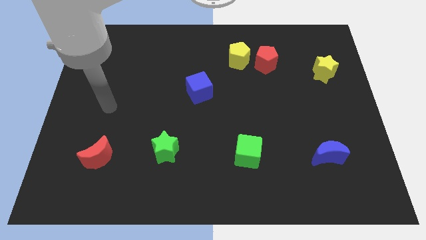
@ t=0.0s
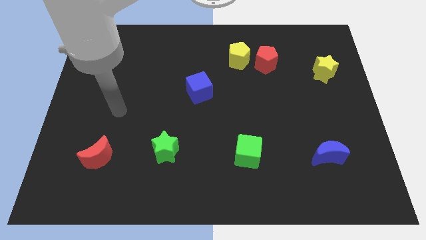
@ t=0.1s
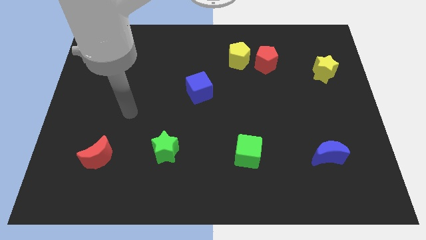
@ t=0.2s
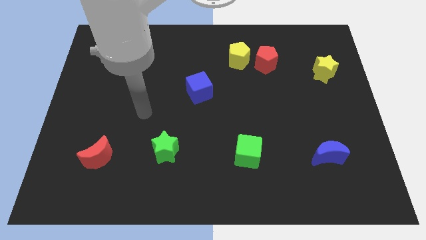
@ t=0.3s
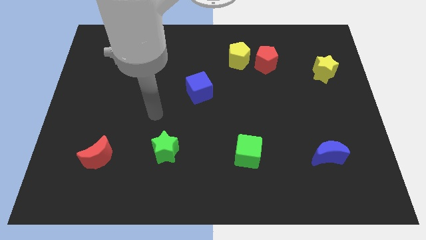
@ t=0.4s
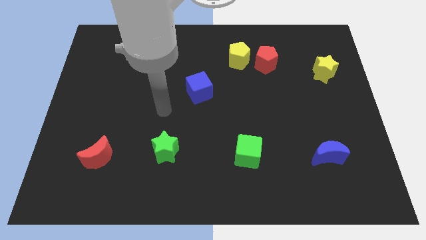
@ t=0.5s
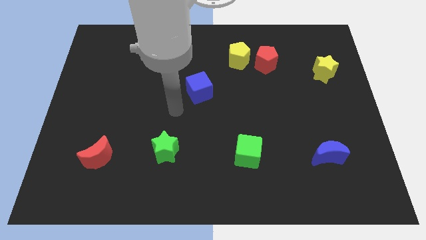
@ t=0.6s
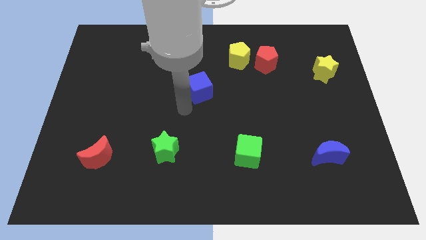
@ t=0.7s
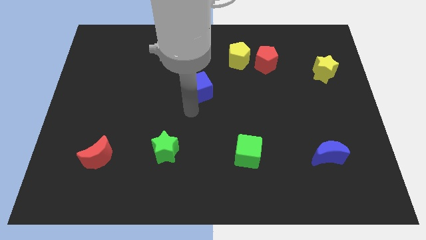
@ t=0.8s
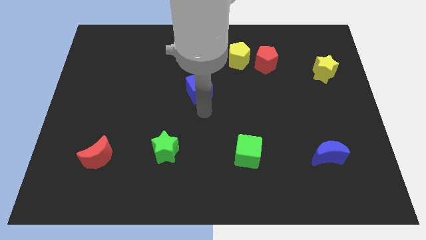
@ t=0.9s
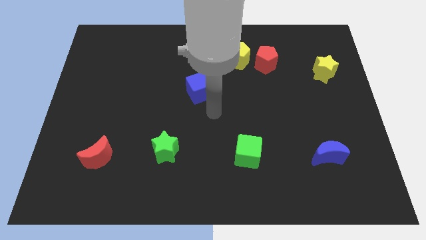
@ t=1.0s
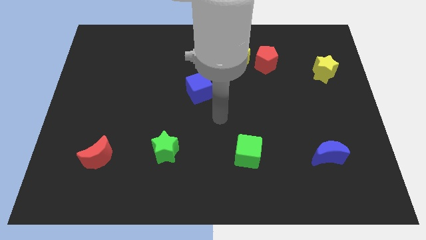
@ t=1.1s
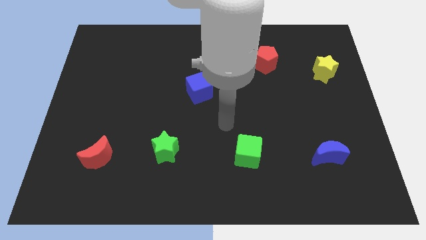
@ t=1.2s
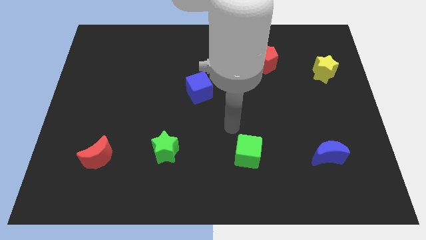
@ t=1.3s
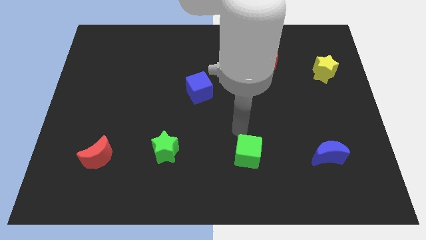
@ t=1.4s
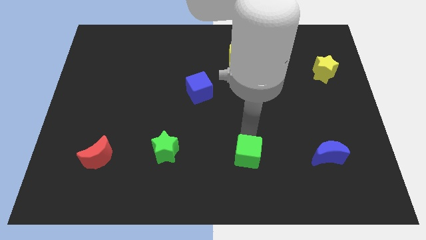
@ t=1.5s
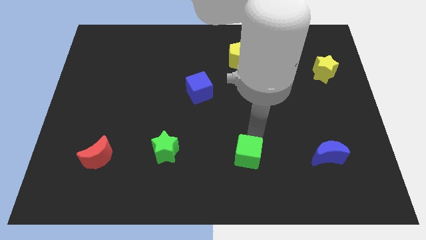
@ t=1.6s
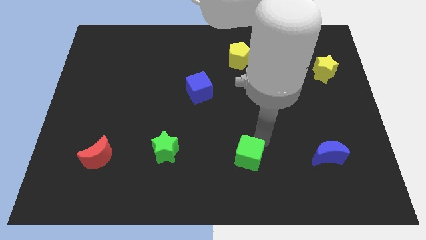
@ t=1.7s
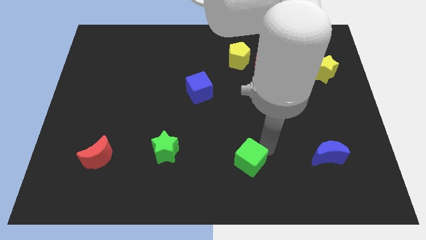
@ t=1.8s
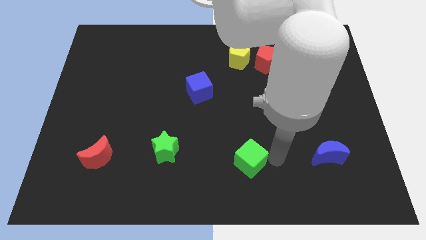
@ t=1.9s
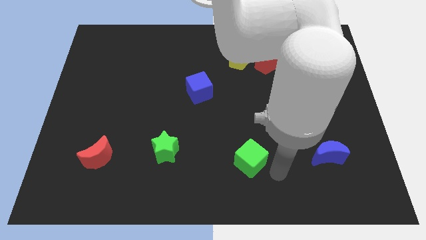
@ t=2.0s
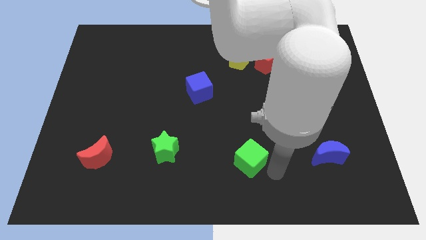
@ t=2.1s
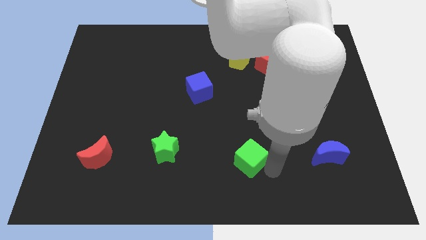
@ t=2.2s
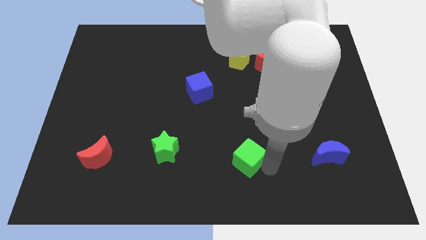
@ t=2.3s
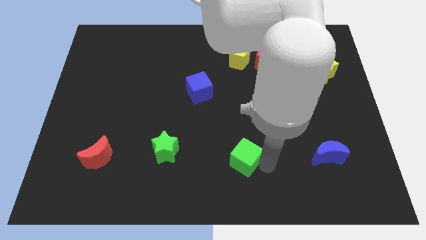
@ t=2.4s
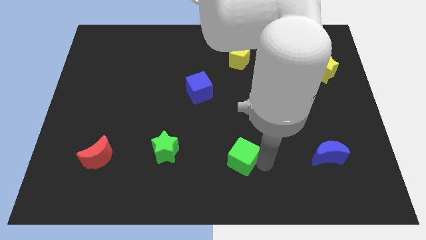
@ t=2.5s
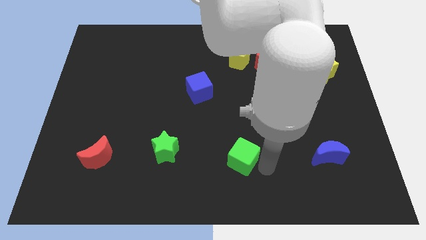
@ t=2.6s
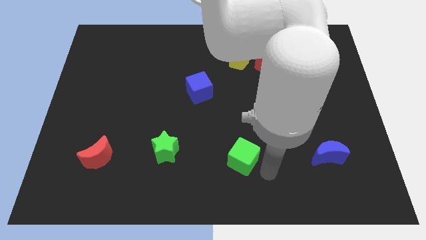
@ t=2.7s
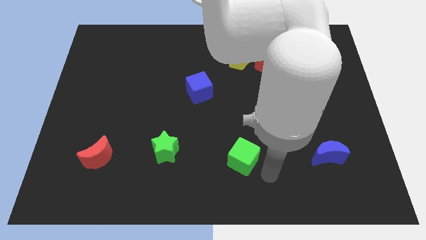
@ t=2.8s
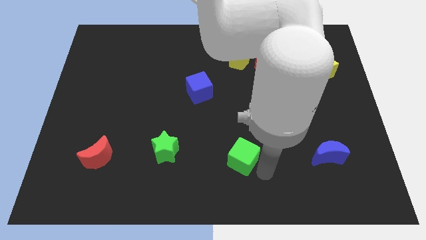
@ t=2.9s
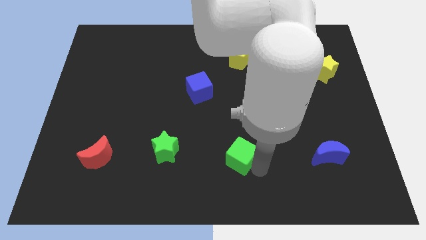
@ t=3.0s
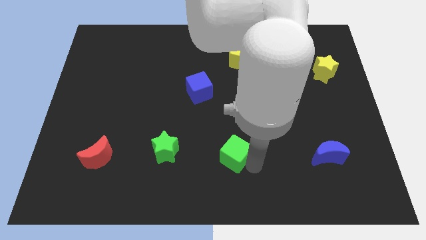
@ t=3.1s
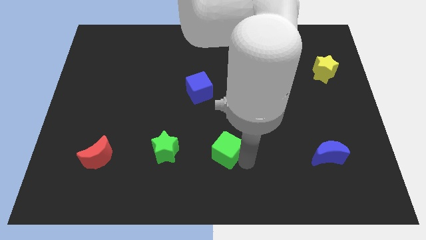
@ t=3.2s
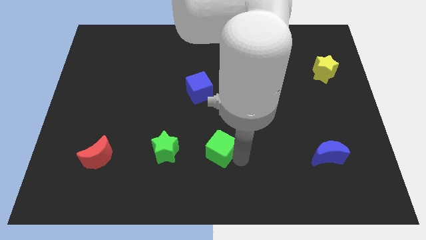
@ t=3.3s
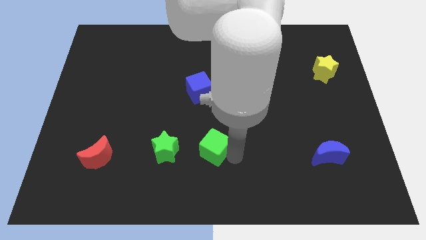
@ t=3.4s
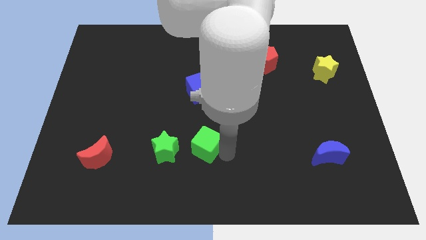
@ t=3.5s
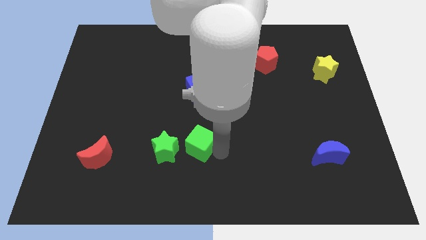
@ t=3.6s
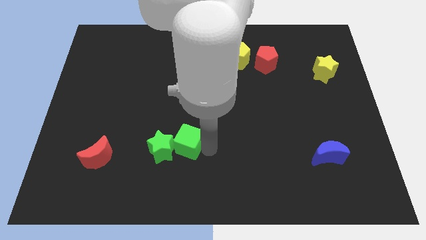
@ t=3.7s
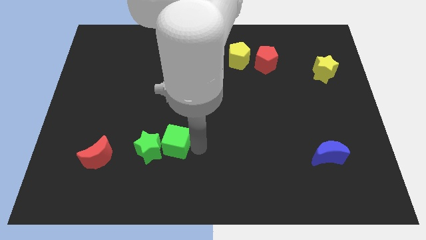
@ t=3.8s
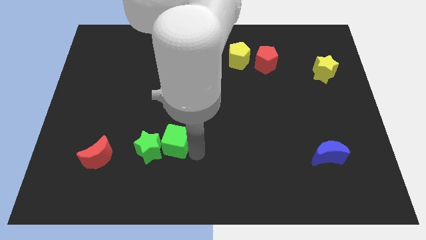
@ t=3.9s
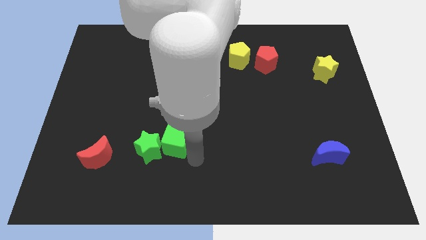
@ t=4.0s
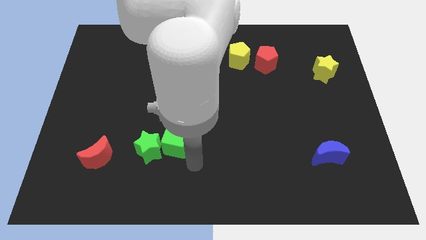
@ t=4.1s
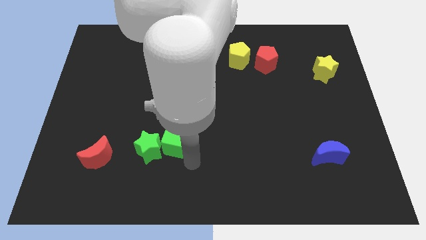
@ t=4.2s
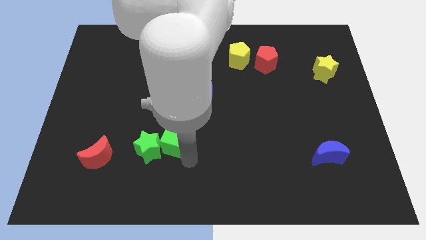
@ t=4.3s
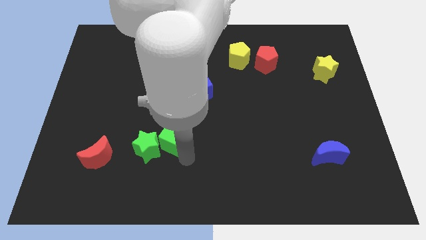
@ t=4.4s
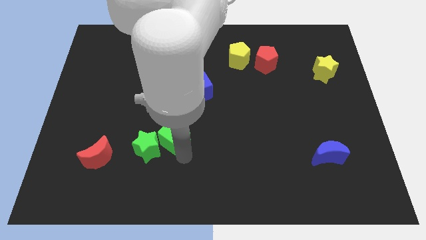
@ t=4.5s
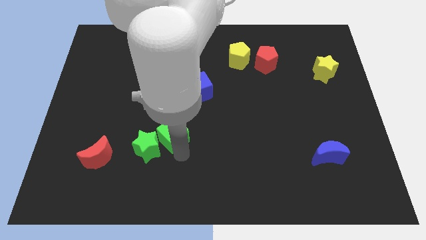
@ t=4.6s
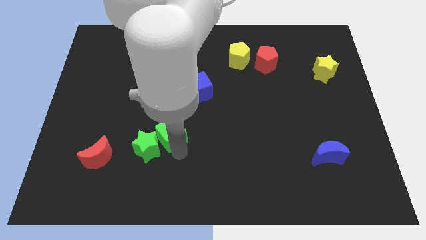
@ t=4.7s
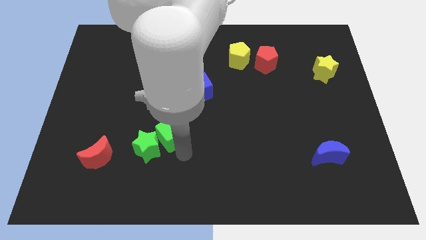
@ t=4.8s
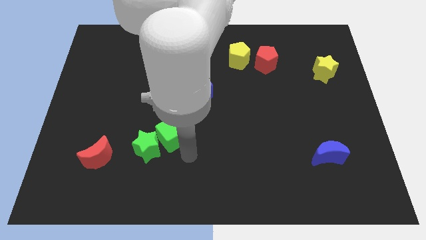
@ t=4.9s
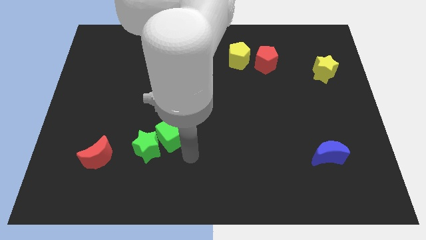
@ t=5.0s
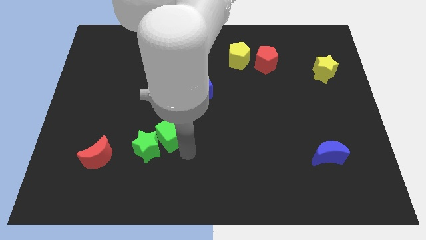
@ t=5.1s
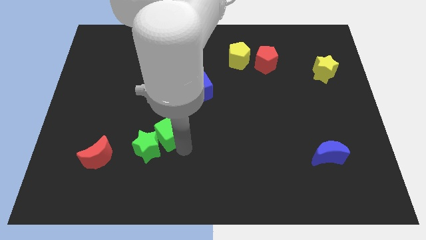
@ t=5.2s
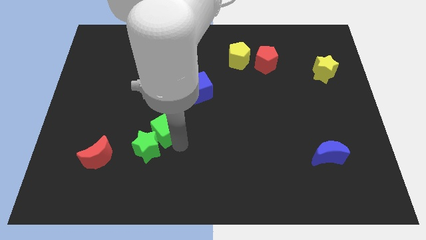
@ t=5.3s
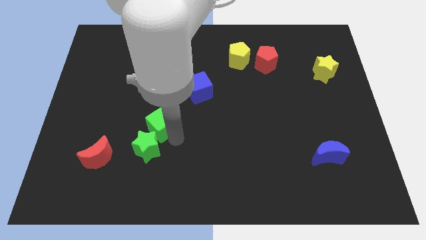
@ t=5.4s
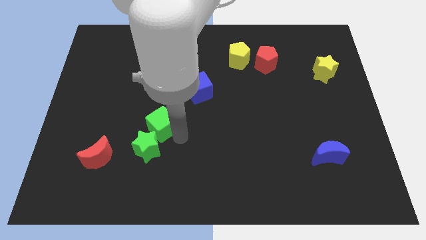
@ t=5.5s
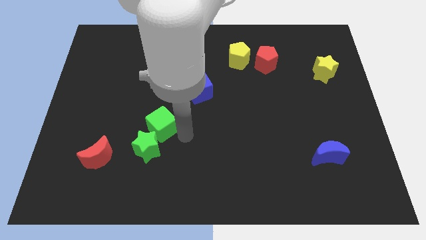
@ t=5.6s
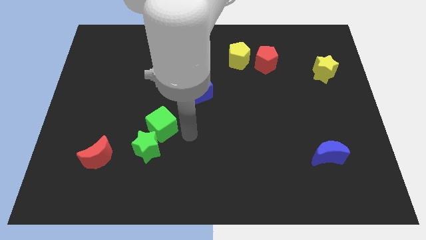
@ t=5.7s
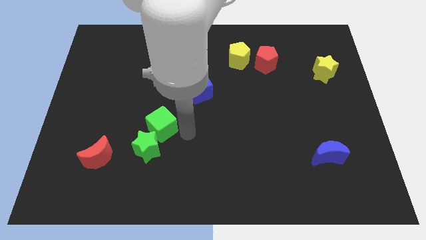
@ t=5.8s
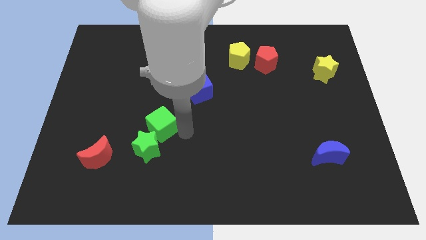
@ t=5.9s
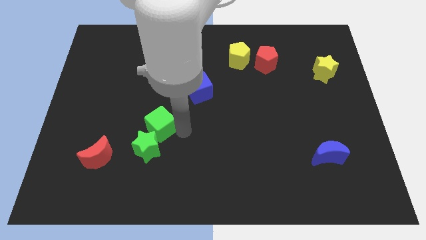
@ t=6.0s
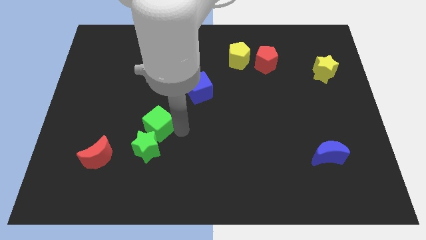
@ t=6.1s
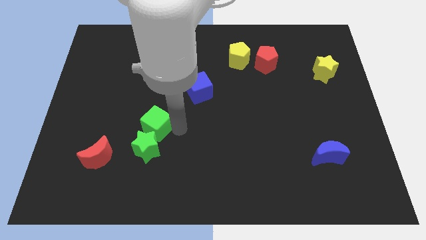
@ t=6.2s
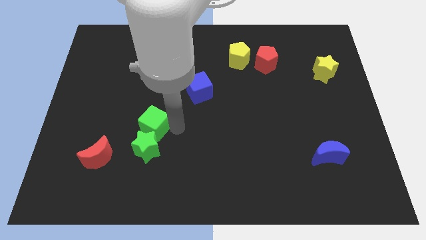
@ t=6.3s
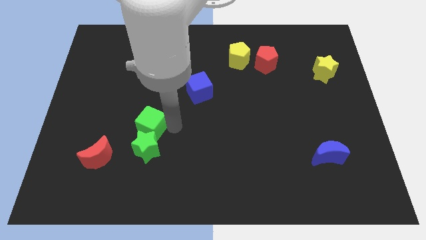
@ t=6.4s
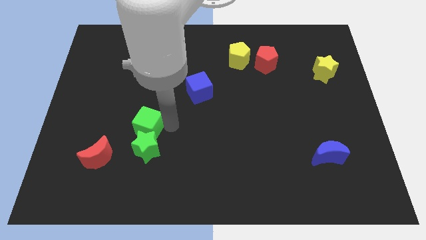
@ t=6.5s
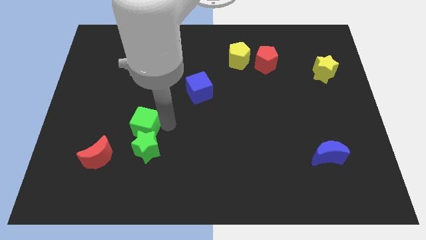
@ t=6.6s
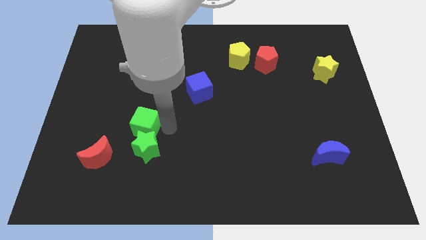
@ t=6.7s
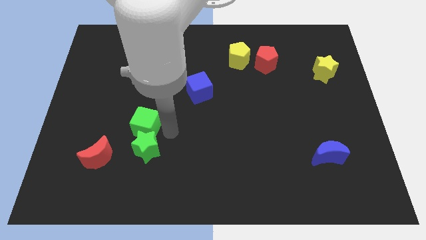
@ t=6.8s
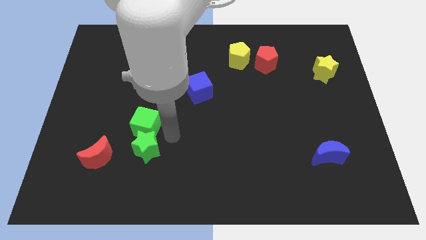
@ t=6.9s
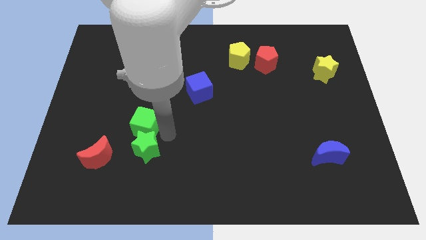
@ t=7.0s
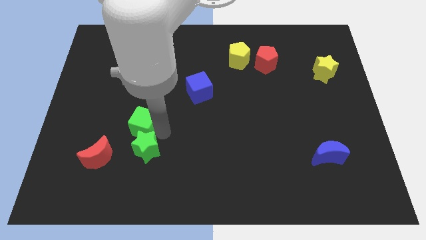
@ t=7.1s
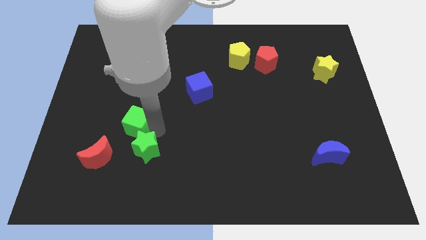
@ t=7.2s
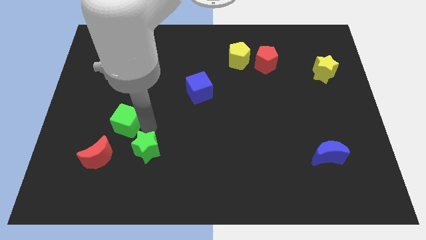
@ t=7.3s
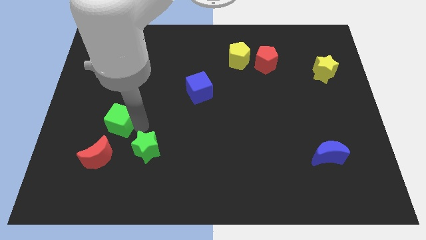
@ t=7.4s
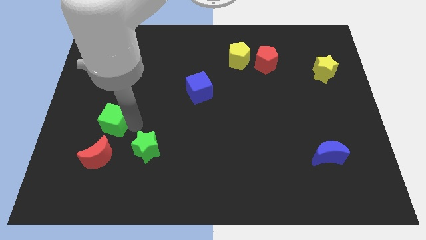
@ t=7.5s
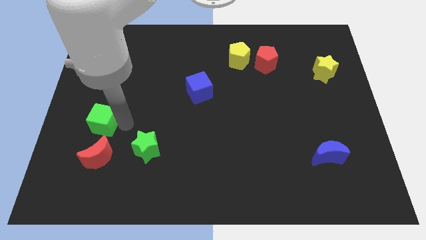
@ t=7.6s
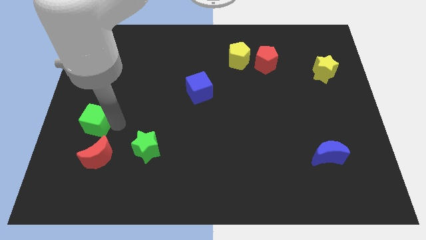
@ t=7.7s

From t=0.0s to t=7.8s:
push the green cube to the left side
